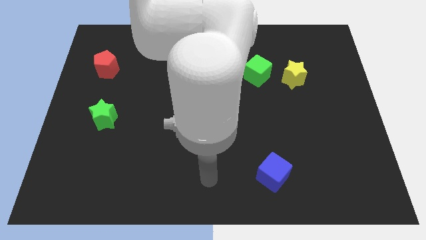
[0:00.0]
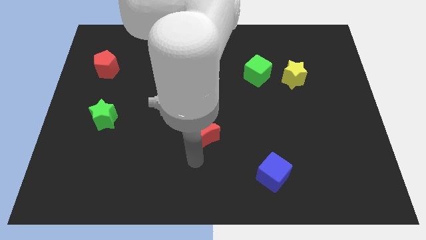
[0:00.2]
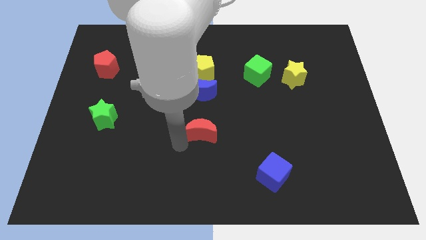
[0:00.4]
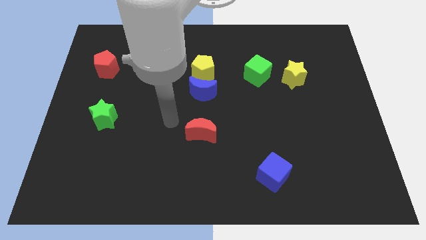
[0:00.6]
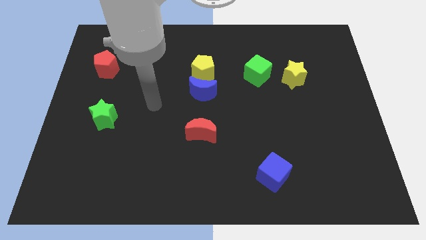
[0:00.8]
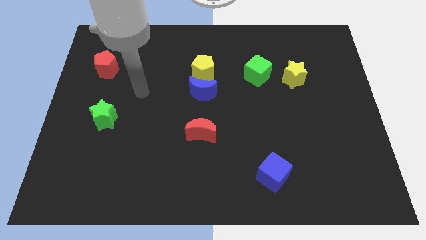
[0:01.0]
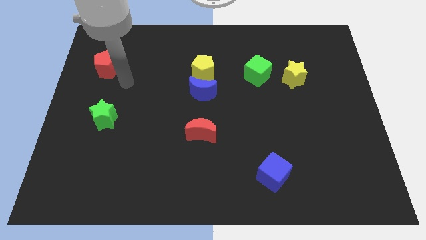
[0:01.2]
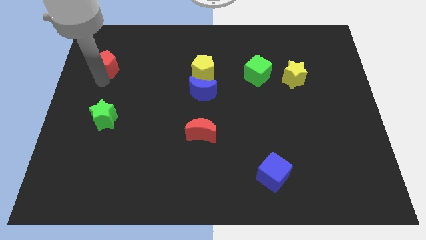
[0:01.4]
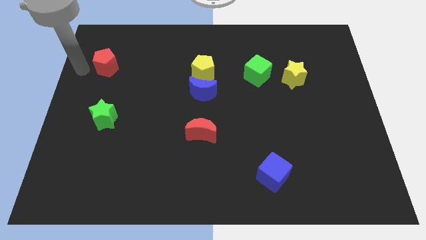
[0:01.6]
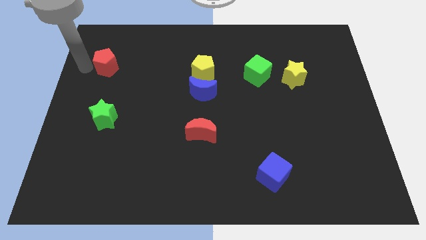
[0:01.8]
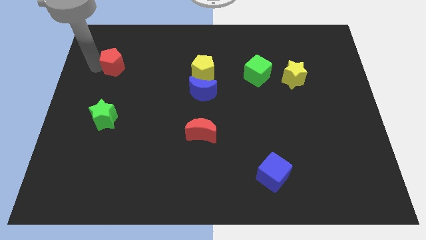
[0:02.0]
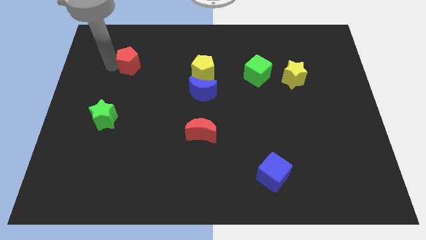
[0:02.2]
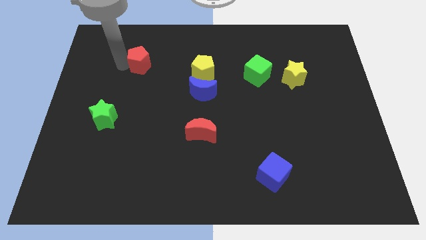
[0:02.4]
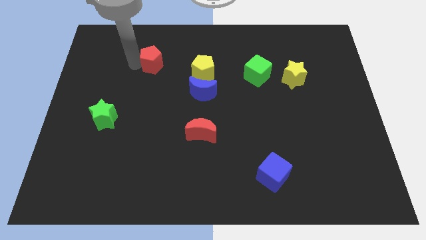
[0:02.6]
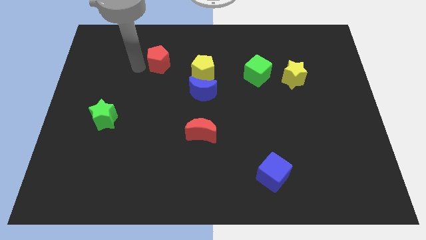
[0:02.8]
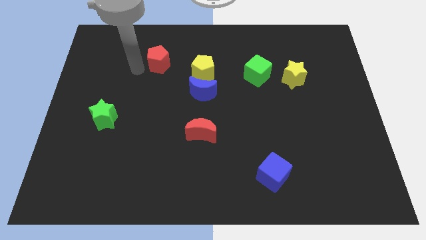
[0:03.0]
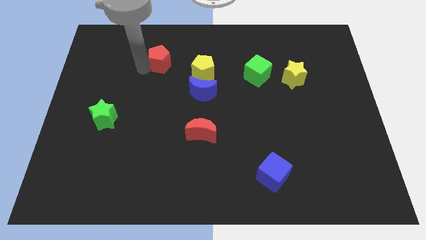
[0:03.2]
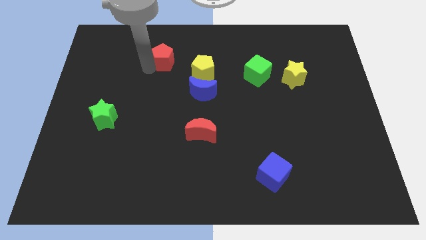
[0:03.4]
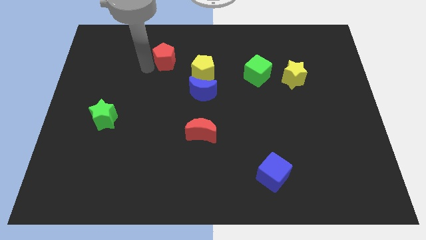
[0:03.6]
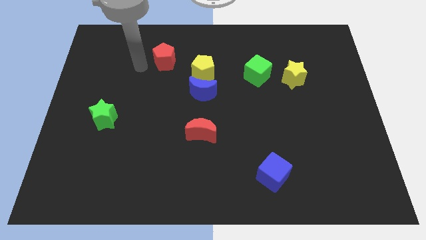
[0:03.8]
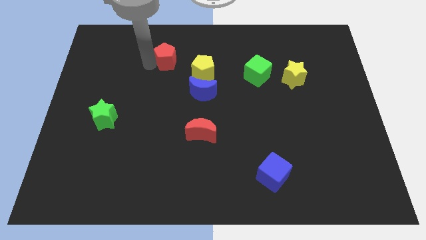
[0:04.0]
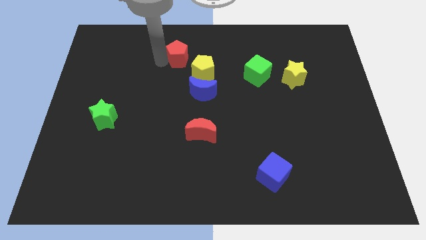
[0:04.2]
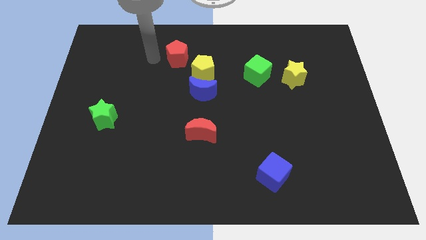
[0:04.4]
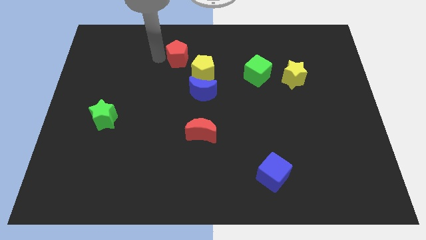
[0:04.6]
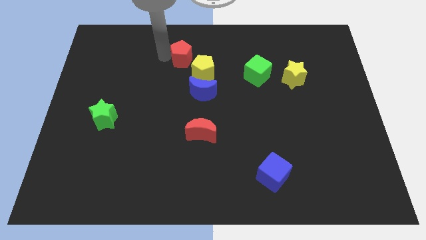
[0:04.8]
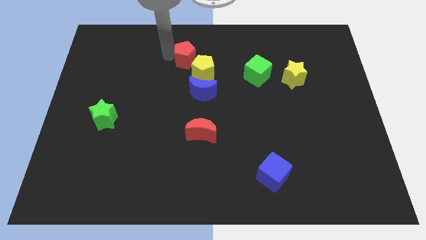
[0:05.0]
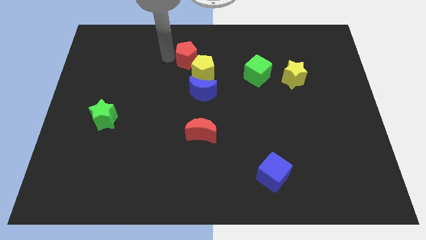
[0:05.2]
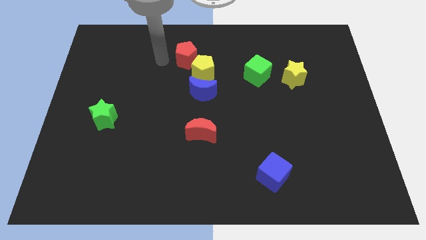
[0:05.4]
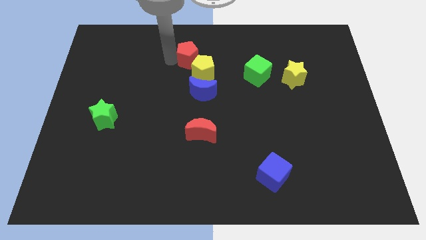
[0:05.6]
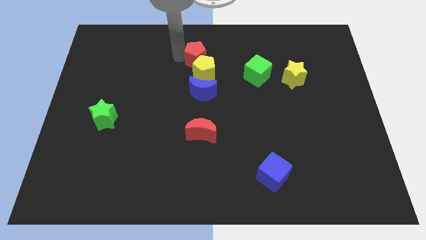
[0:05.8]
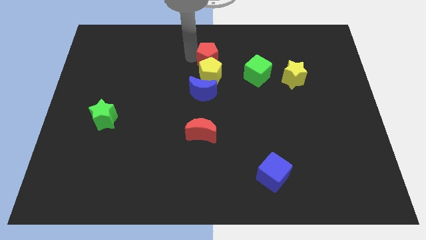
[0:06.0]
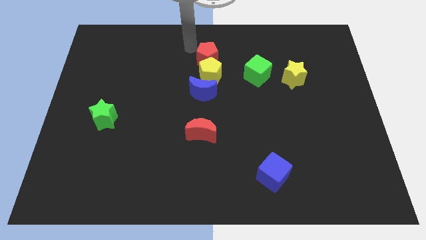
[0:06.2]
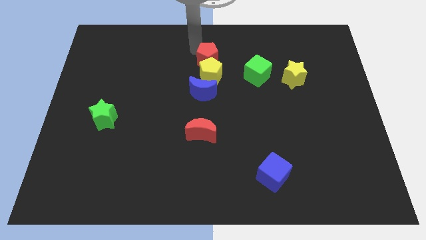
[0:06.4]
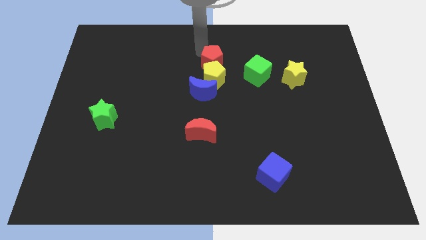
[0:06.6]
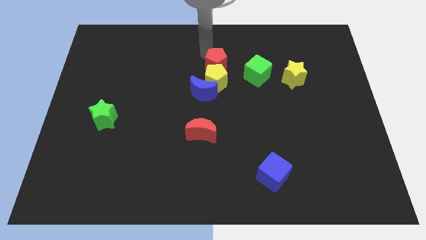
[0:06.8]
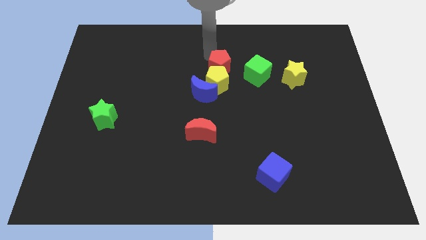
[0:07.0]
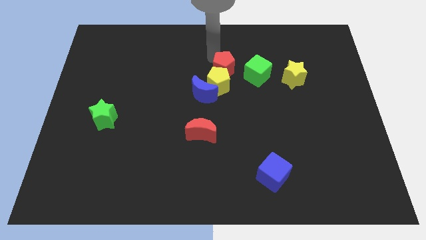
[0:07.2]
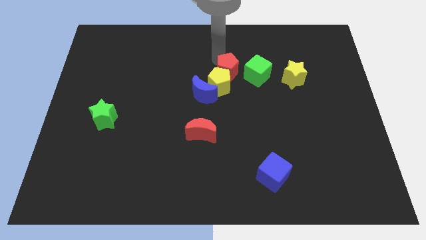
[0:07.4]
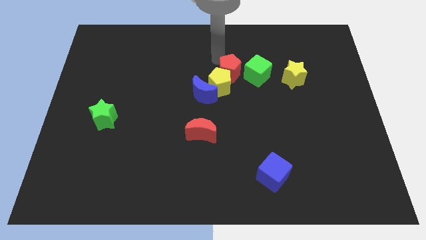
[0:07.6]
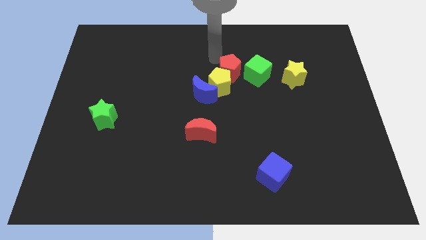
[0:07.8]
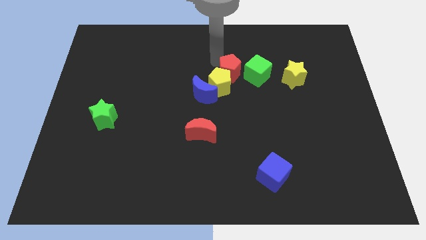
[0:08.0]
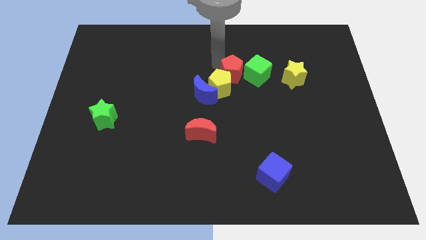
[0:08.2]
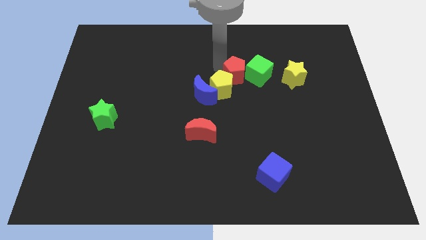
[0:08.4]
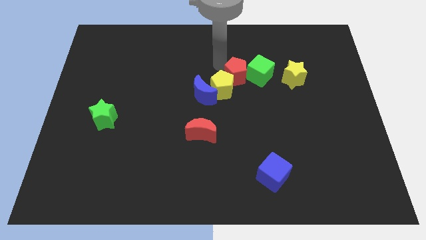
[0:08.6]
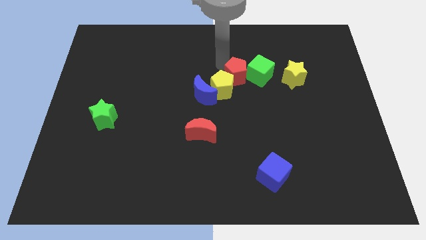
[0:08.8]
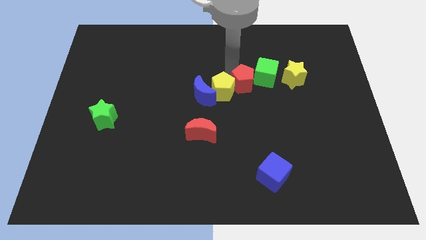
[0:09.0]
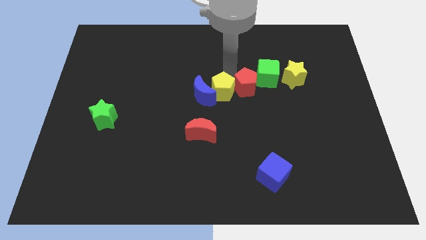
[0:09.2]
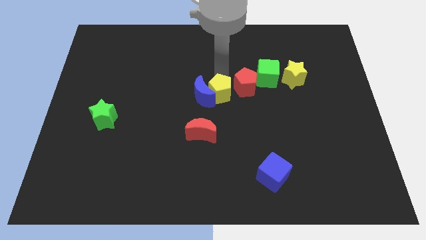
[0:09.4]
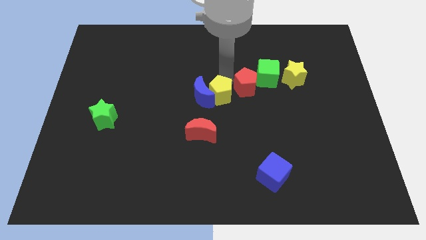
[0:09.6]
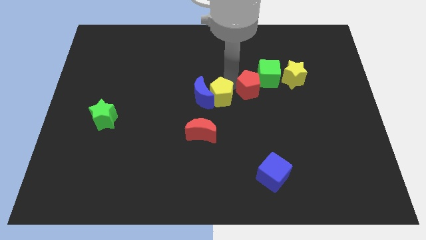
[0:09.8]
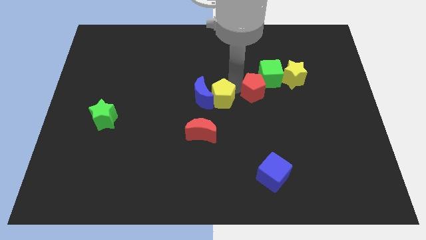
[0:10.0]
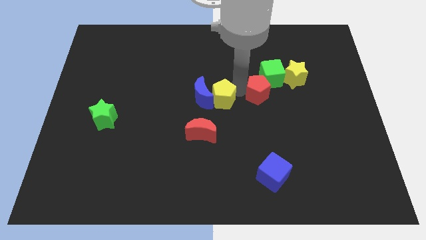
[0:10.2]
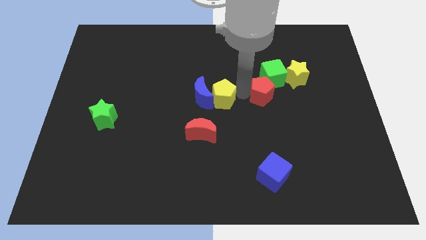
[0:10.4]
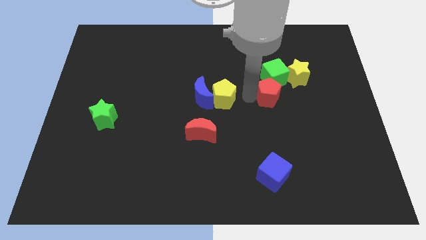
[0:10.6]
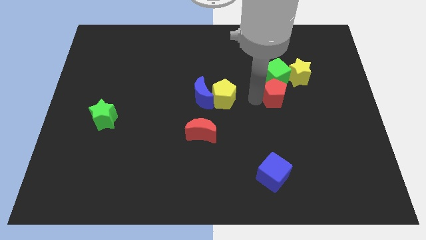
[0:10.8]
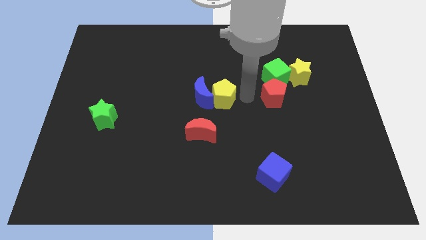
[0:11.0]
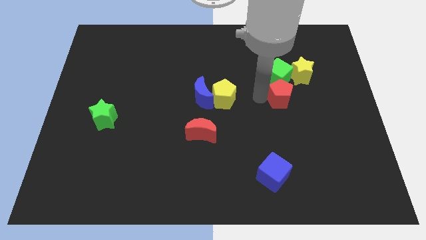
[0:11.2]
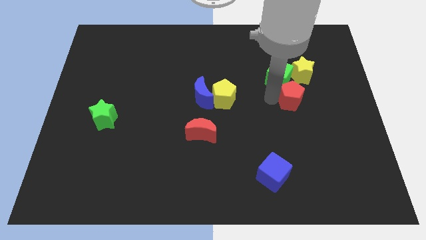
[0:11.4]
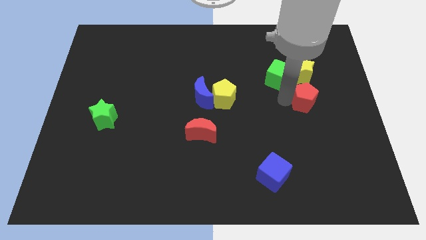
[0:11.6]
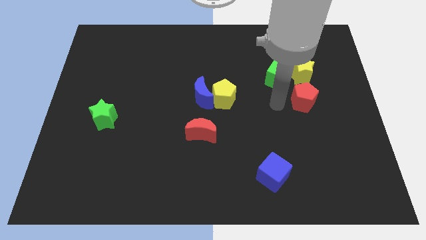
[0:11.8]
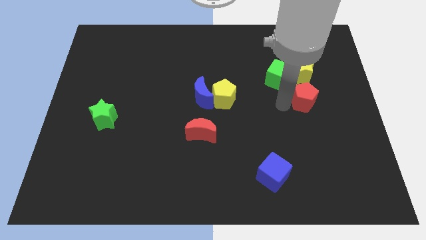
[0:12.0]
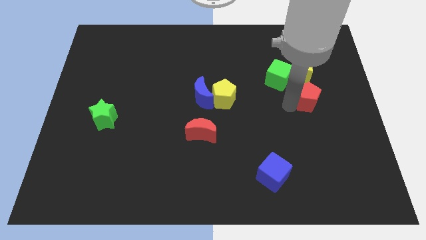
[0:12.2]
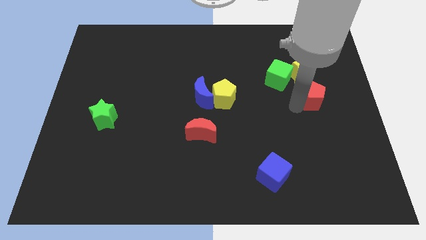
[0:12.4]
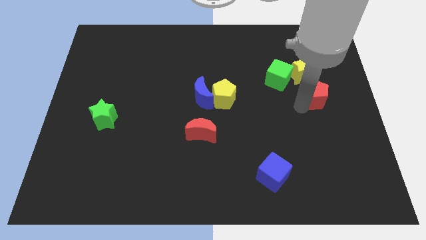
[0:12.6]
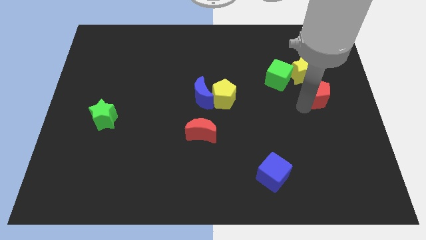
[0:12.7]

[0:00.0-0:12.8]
push the red pentagon to the center right
